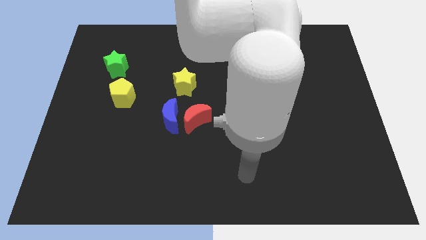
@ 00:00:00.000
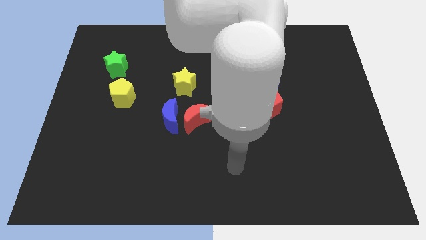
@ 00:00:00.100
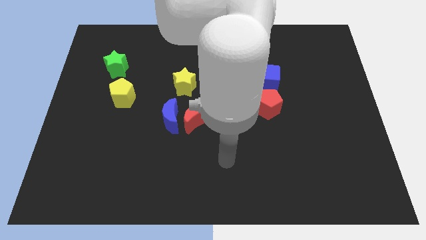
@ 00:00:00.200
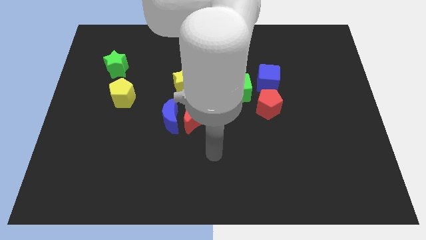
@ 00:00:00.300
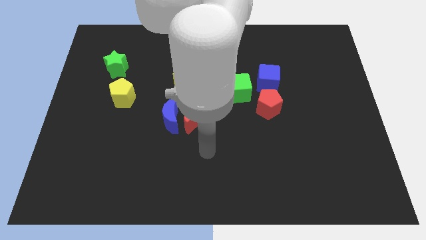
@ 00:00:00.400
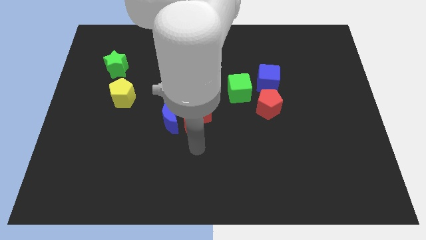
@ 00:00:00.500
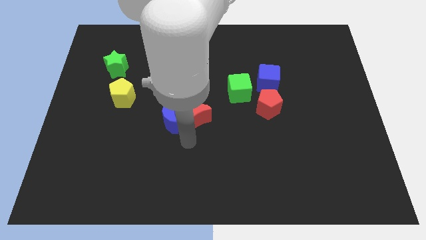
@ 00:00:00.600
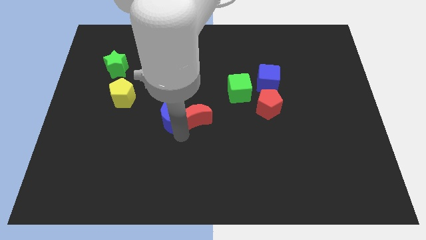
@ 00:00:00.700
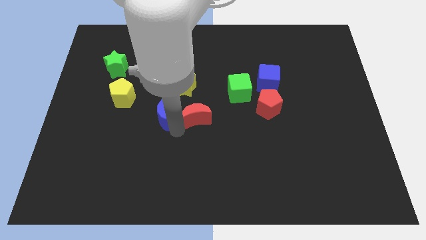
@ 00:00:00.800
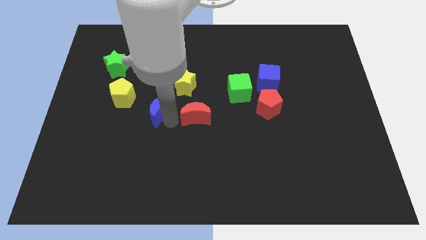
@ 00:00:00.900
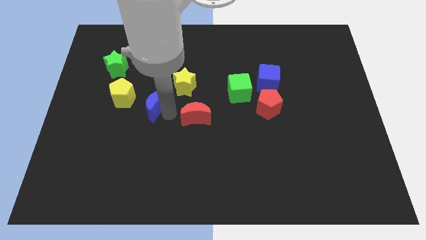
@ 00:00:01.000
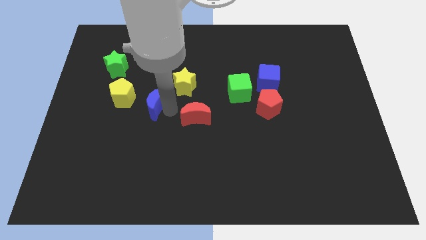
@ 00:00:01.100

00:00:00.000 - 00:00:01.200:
separate the red moon from the blue moon

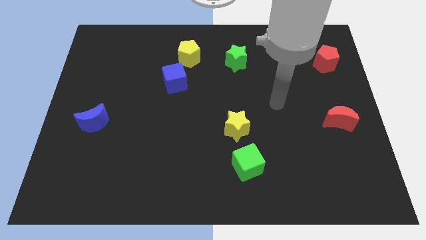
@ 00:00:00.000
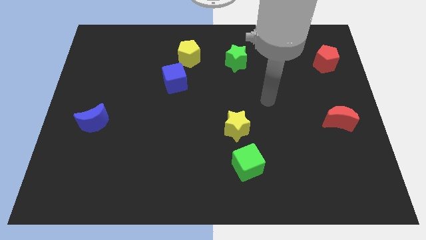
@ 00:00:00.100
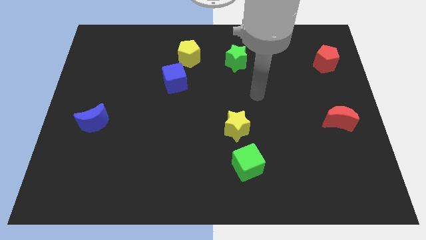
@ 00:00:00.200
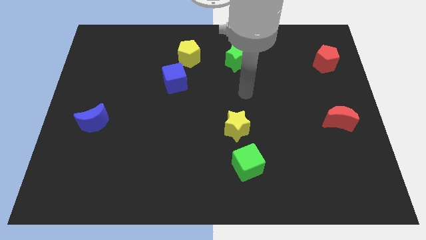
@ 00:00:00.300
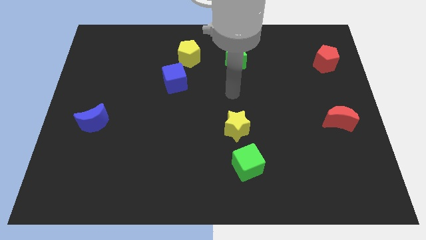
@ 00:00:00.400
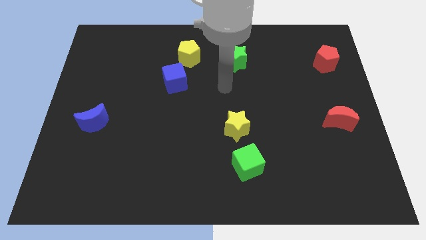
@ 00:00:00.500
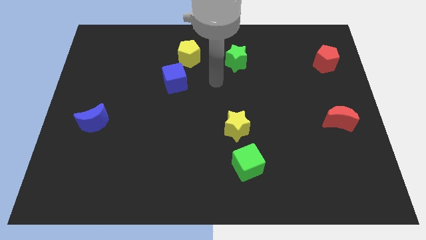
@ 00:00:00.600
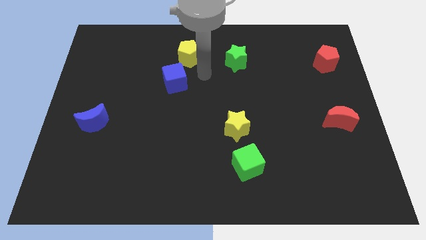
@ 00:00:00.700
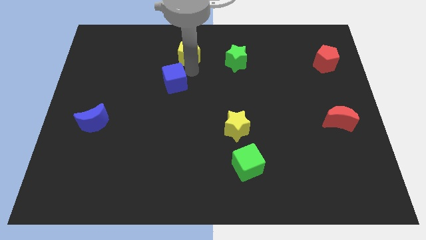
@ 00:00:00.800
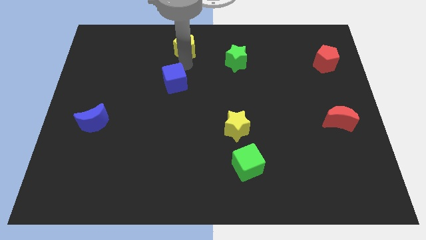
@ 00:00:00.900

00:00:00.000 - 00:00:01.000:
move the blue cube away from the yellow pentagon

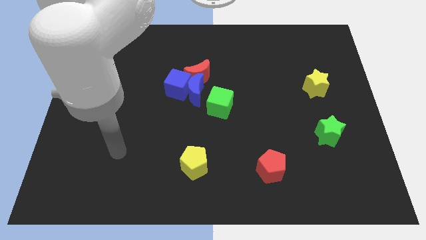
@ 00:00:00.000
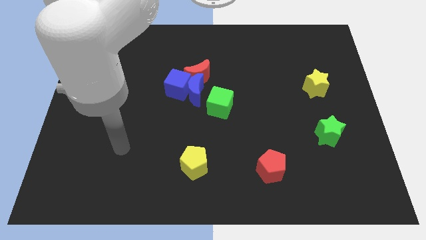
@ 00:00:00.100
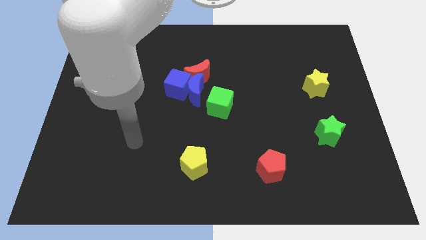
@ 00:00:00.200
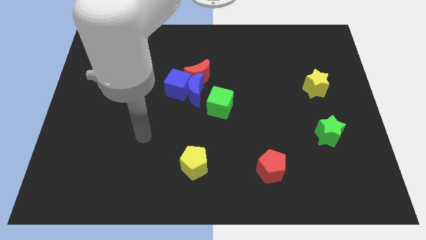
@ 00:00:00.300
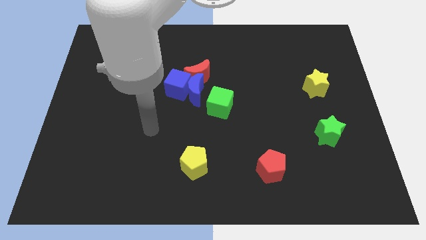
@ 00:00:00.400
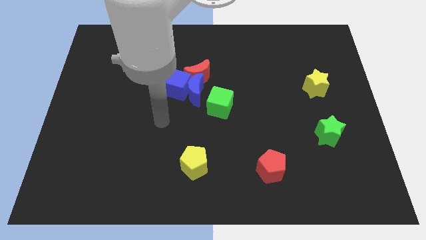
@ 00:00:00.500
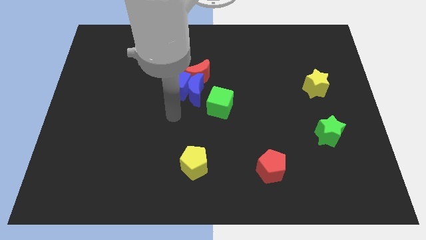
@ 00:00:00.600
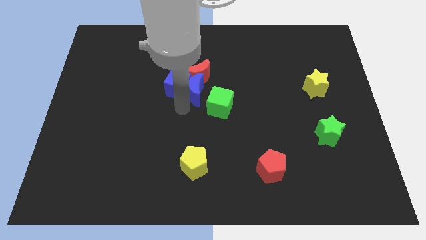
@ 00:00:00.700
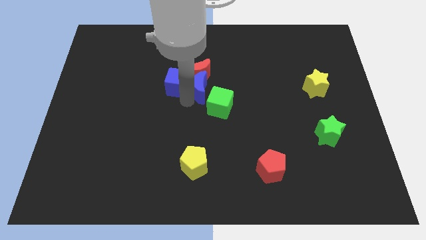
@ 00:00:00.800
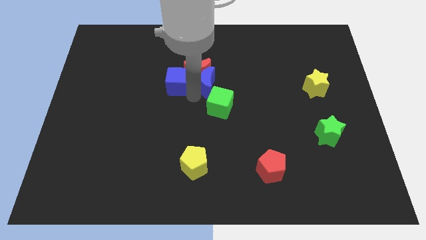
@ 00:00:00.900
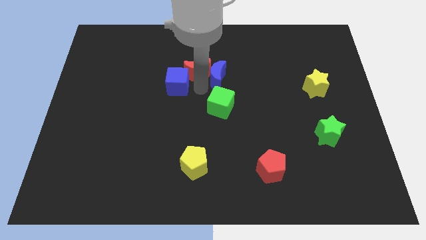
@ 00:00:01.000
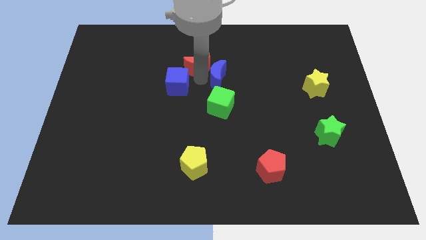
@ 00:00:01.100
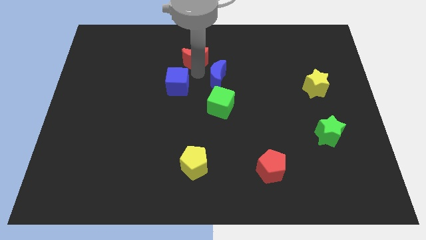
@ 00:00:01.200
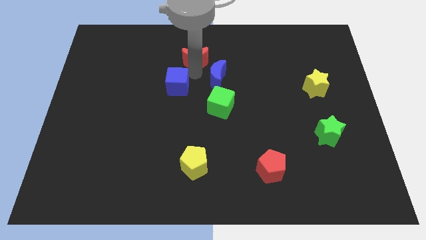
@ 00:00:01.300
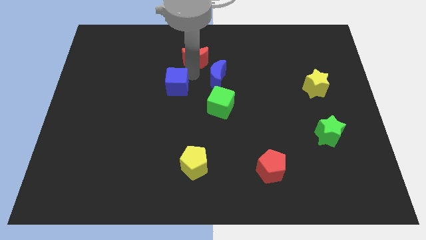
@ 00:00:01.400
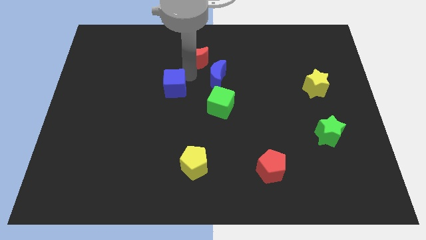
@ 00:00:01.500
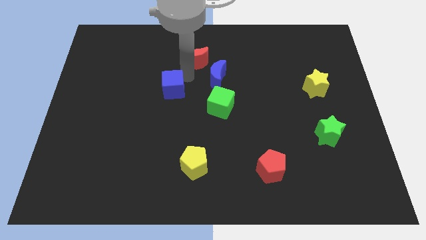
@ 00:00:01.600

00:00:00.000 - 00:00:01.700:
pull the blue cube apart from the blue moon and red moon

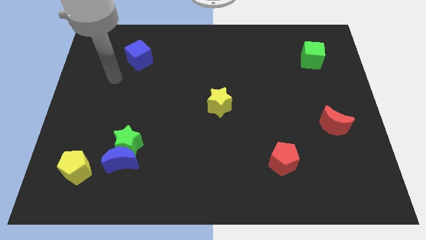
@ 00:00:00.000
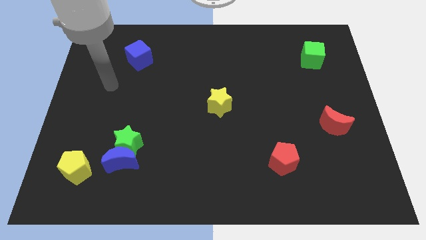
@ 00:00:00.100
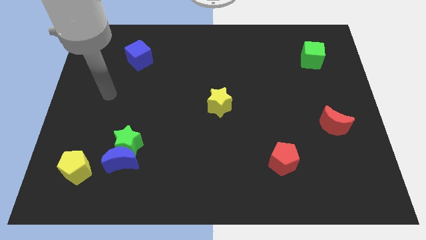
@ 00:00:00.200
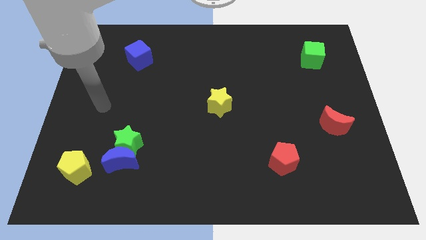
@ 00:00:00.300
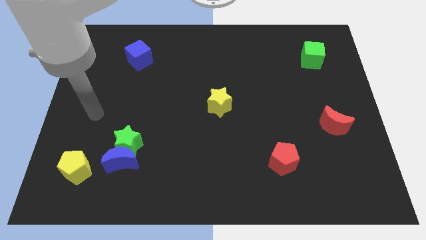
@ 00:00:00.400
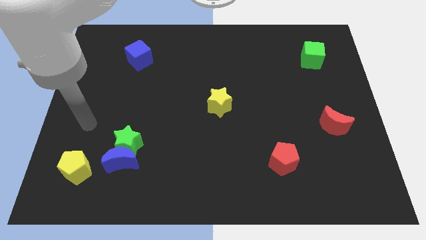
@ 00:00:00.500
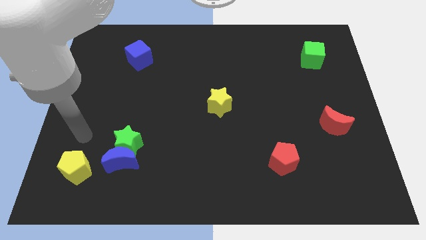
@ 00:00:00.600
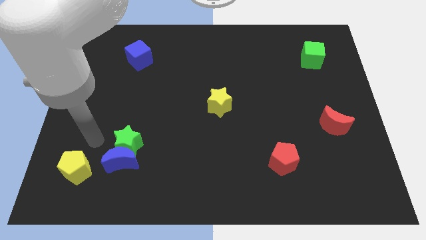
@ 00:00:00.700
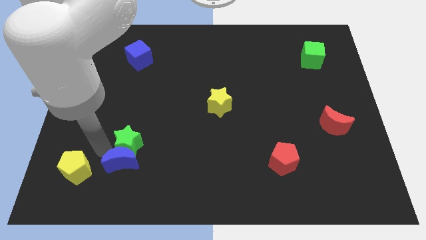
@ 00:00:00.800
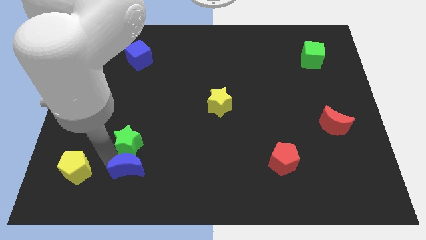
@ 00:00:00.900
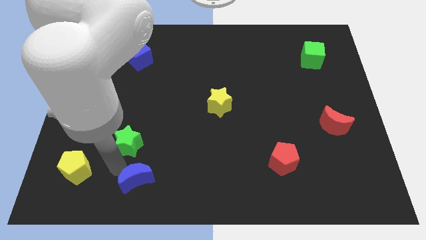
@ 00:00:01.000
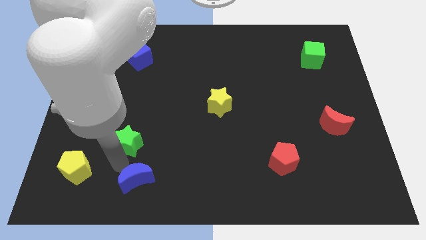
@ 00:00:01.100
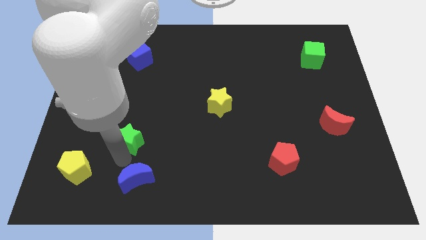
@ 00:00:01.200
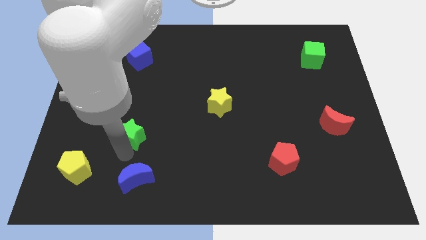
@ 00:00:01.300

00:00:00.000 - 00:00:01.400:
separate the green star from the blue moon

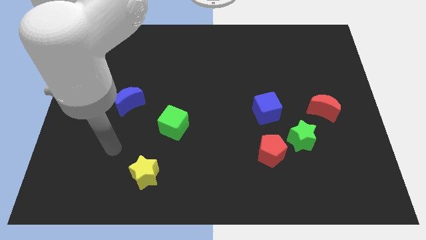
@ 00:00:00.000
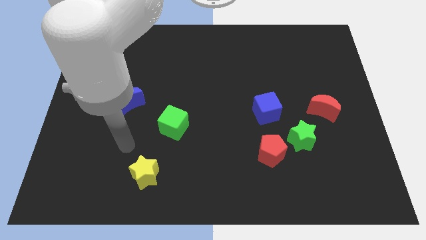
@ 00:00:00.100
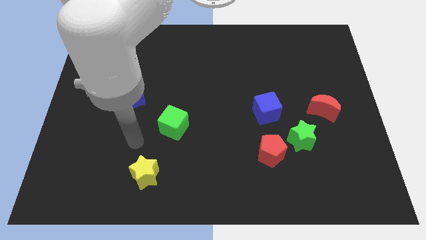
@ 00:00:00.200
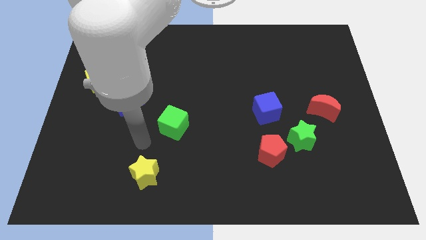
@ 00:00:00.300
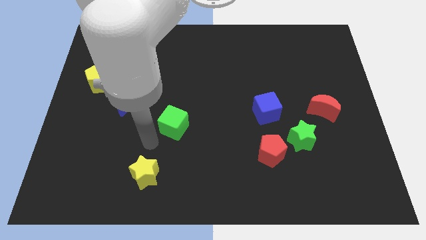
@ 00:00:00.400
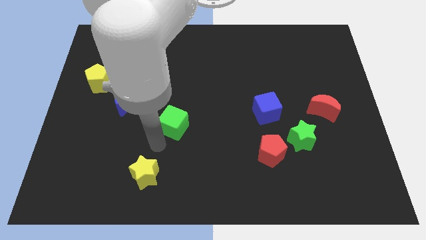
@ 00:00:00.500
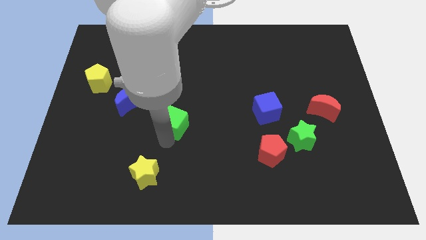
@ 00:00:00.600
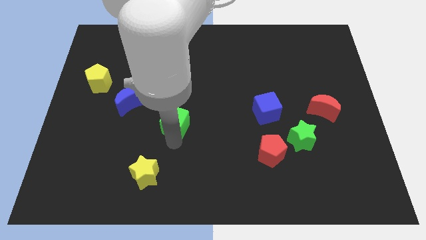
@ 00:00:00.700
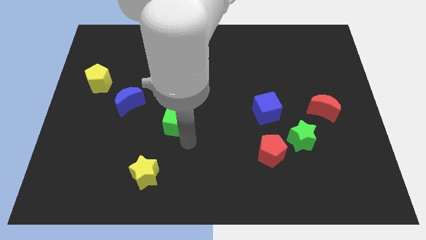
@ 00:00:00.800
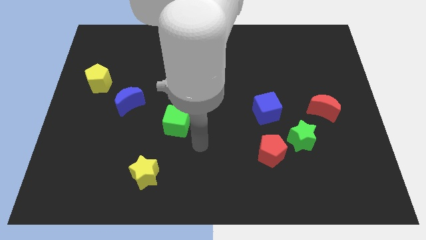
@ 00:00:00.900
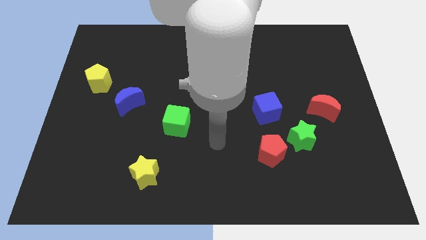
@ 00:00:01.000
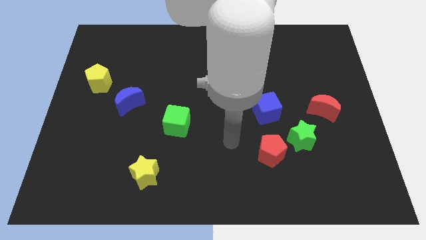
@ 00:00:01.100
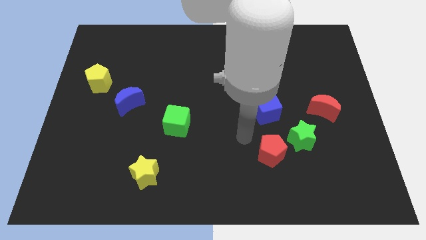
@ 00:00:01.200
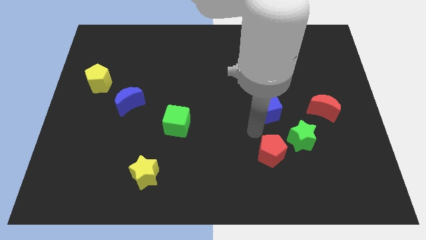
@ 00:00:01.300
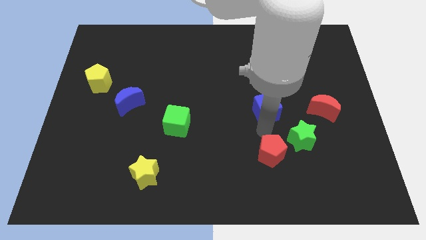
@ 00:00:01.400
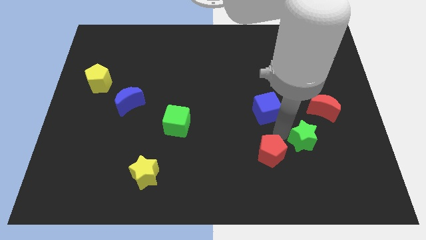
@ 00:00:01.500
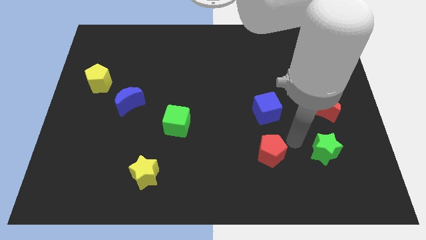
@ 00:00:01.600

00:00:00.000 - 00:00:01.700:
separate the red pentagon from the green star

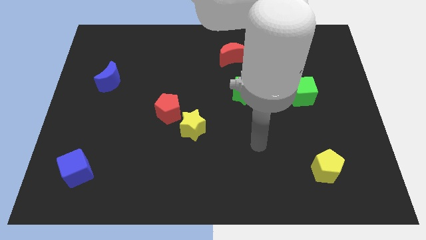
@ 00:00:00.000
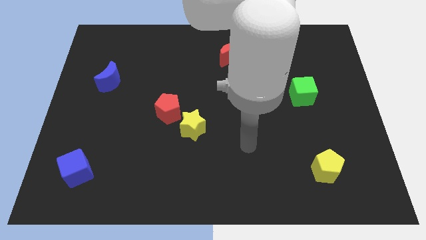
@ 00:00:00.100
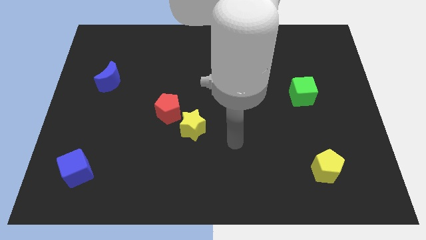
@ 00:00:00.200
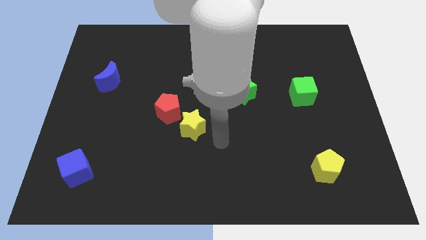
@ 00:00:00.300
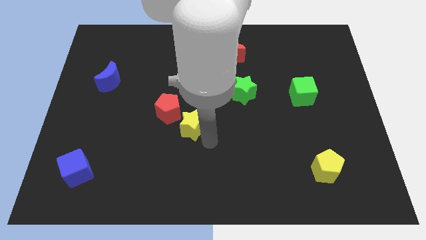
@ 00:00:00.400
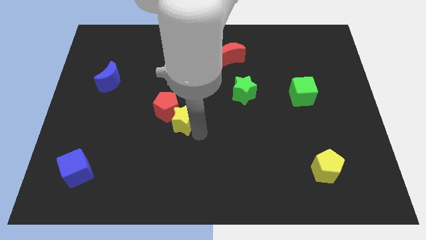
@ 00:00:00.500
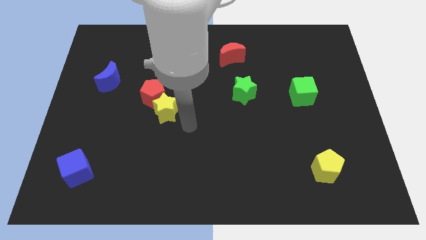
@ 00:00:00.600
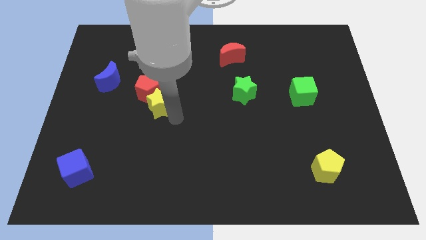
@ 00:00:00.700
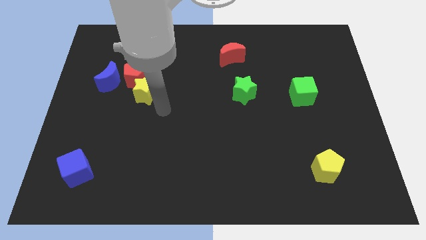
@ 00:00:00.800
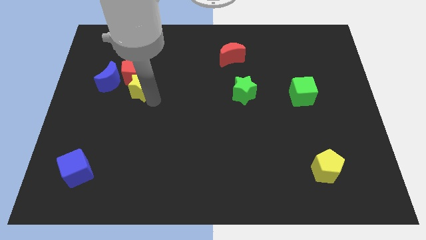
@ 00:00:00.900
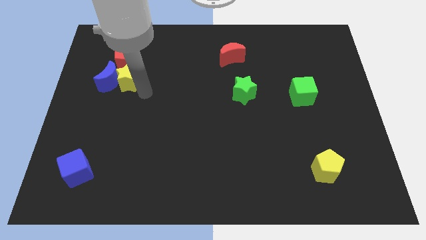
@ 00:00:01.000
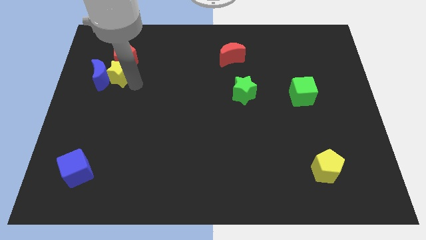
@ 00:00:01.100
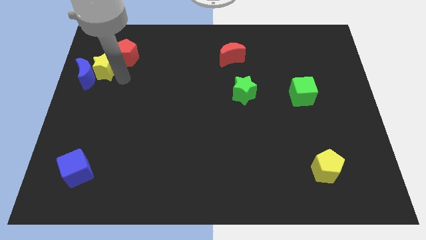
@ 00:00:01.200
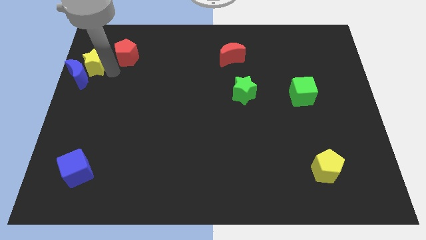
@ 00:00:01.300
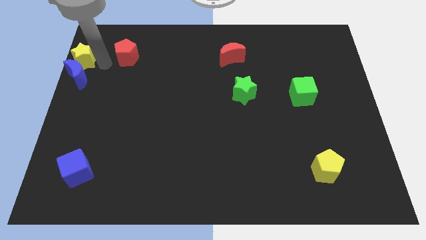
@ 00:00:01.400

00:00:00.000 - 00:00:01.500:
separate the red pentagon from the yellow star

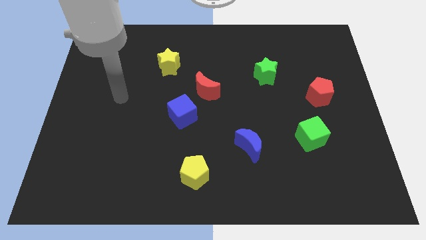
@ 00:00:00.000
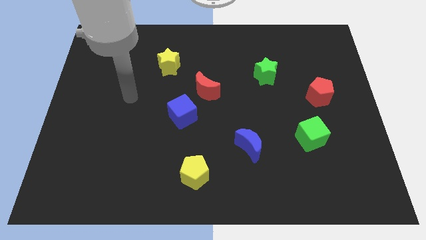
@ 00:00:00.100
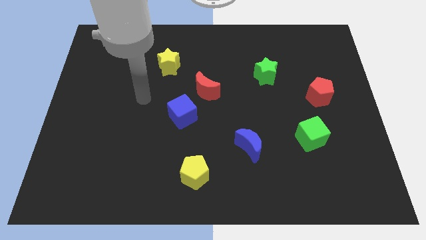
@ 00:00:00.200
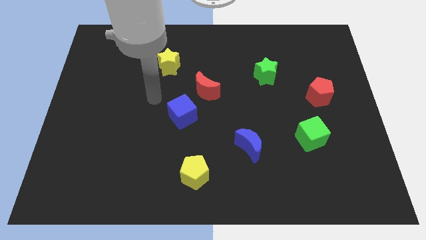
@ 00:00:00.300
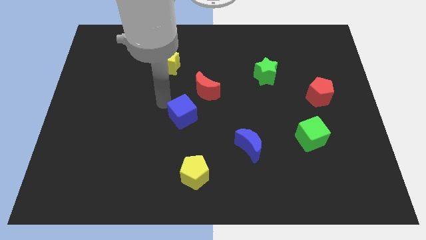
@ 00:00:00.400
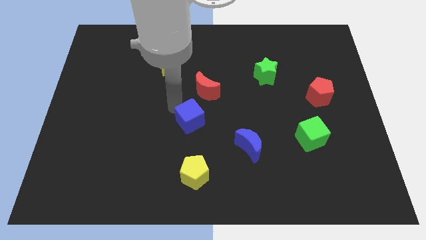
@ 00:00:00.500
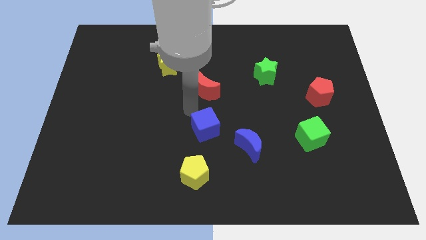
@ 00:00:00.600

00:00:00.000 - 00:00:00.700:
pull the red moon apart from the blue cube
